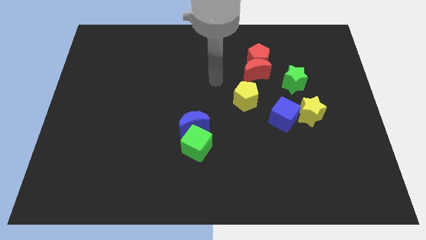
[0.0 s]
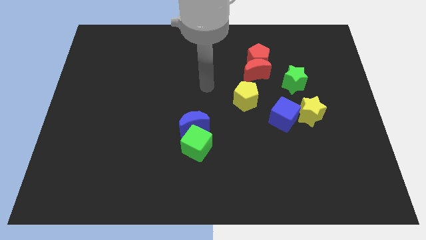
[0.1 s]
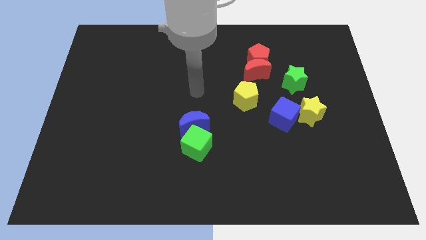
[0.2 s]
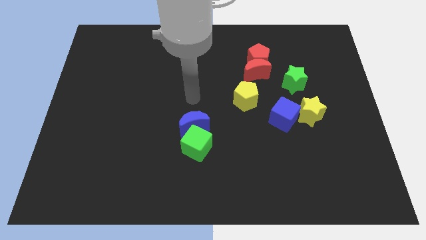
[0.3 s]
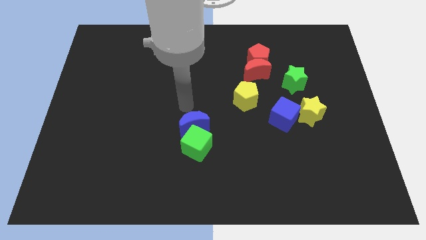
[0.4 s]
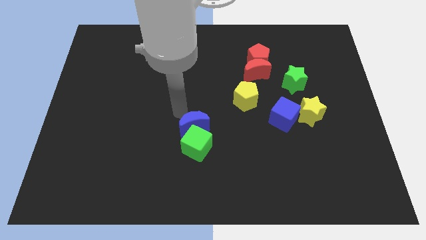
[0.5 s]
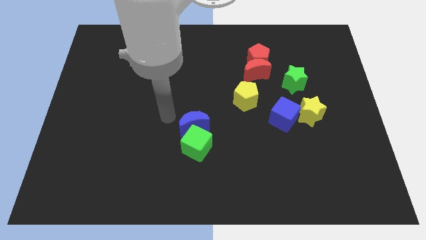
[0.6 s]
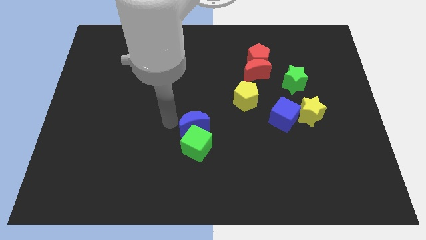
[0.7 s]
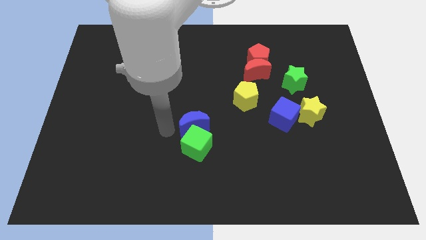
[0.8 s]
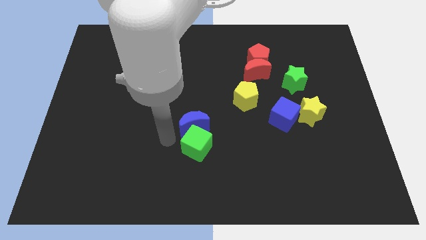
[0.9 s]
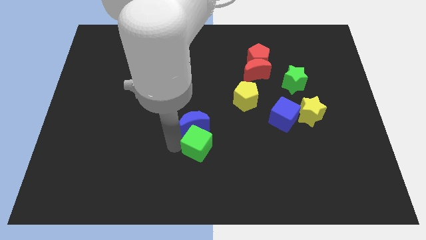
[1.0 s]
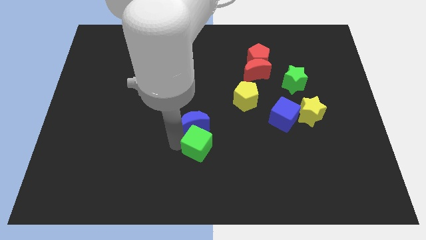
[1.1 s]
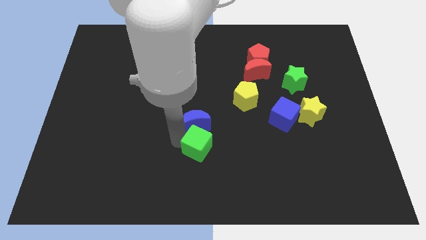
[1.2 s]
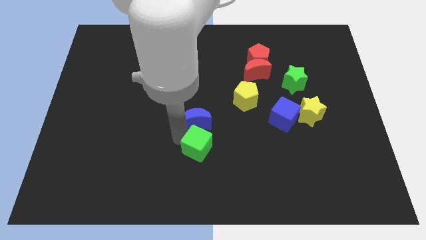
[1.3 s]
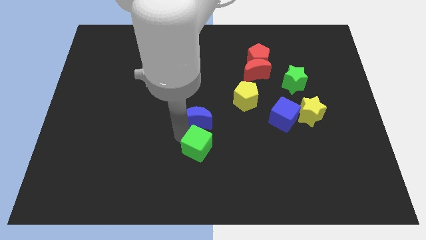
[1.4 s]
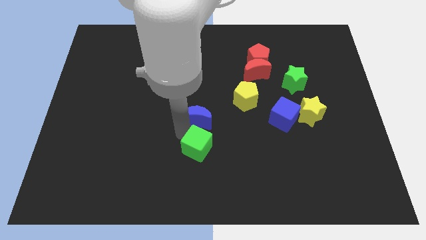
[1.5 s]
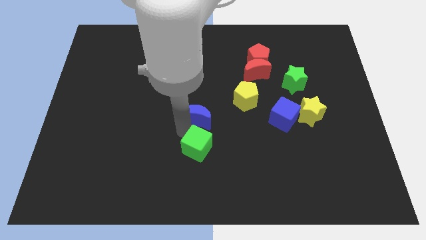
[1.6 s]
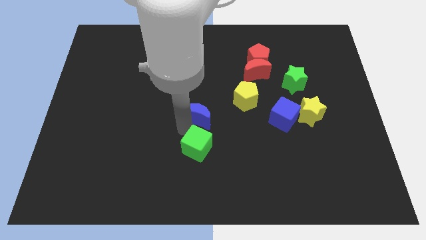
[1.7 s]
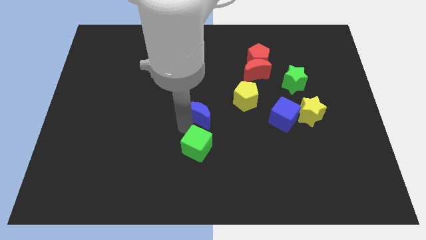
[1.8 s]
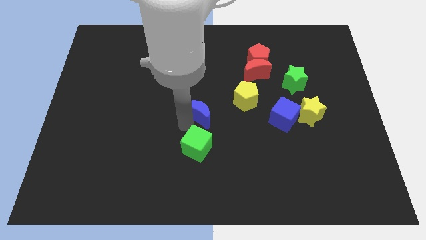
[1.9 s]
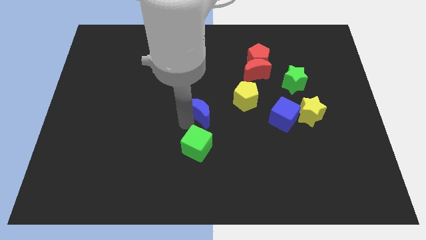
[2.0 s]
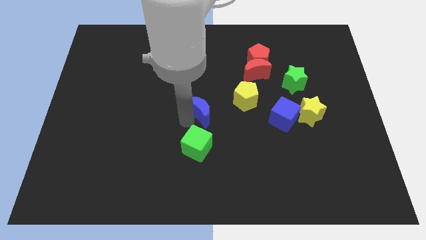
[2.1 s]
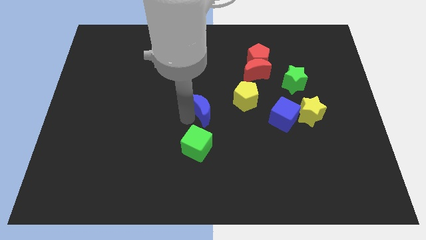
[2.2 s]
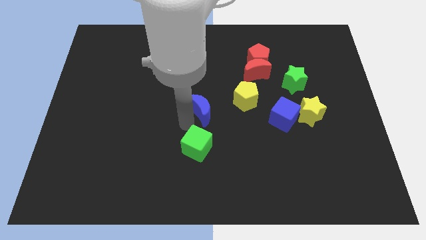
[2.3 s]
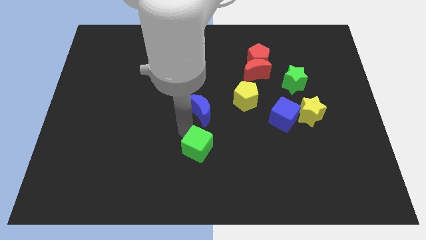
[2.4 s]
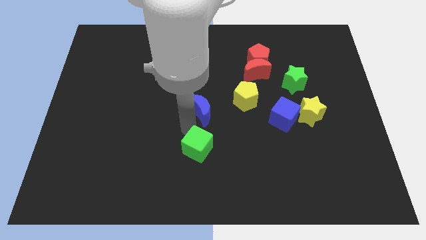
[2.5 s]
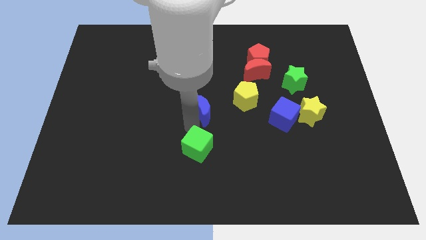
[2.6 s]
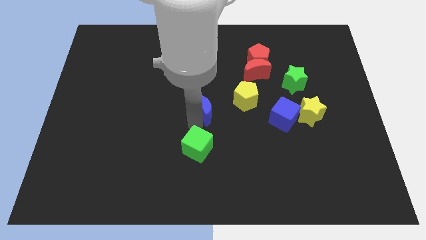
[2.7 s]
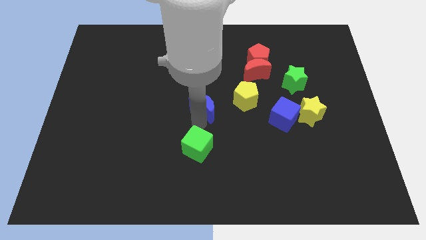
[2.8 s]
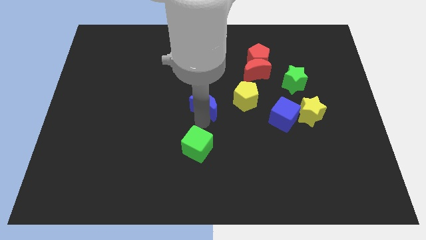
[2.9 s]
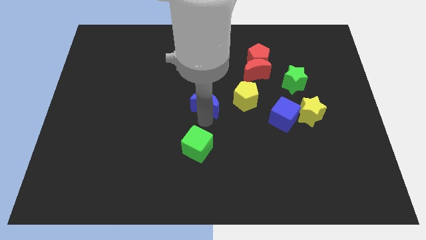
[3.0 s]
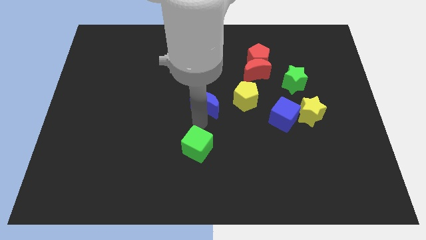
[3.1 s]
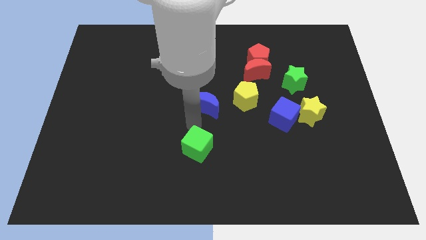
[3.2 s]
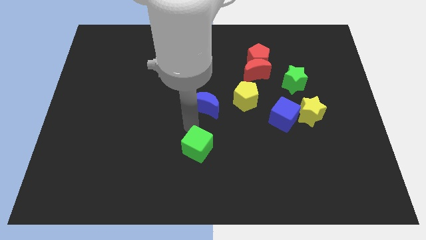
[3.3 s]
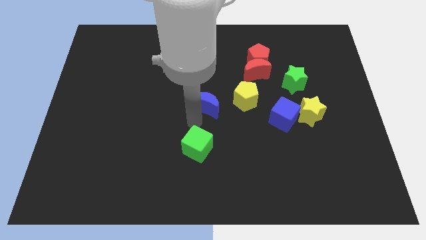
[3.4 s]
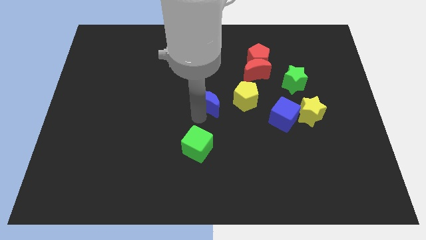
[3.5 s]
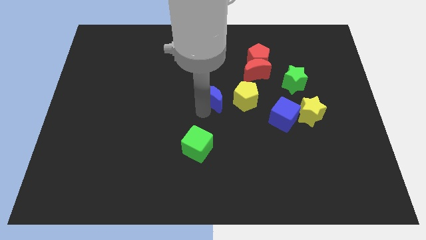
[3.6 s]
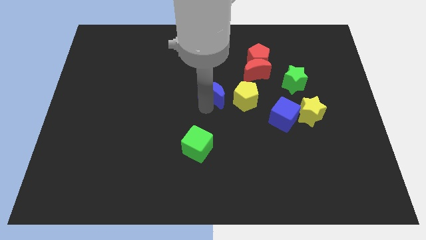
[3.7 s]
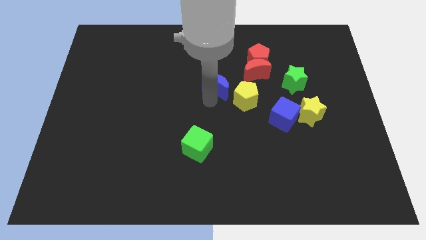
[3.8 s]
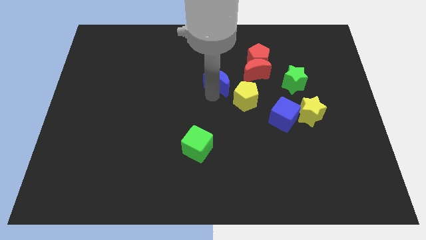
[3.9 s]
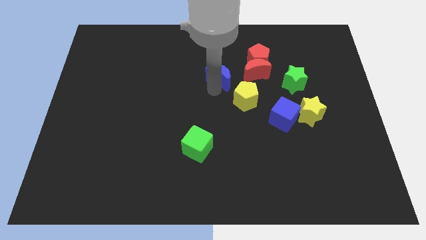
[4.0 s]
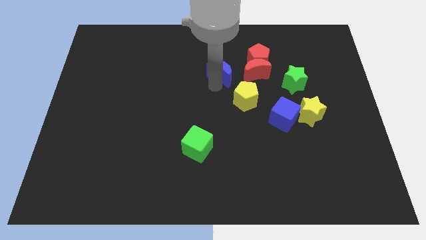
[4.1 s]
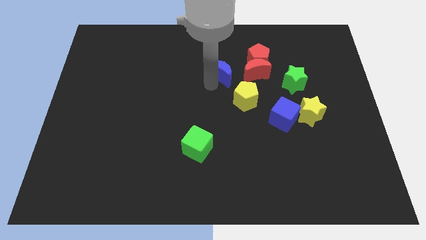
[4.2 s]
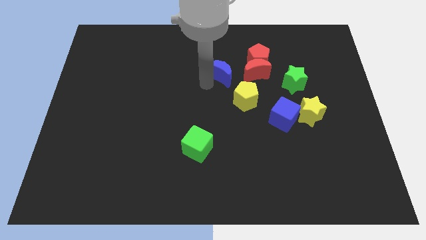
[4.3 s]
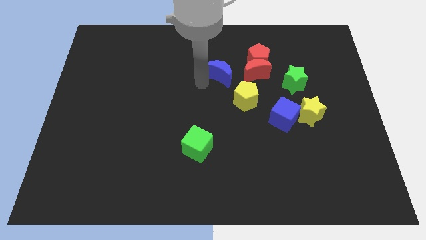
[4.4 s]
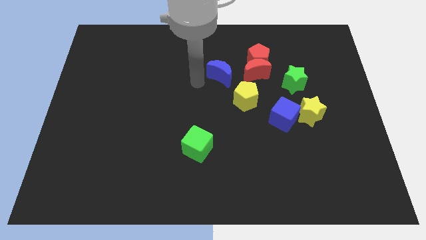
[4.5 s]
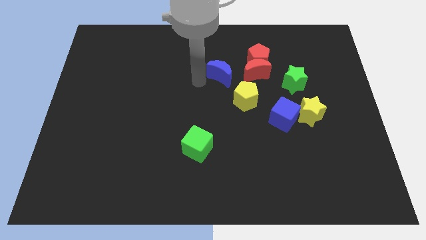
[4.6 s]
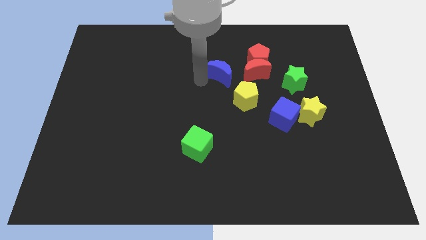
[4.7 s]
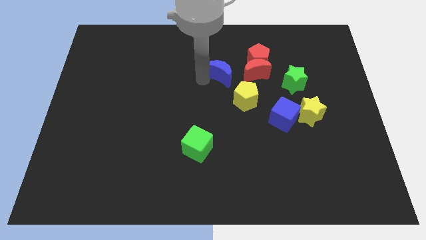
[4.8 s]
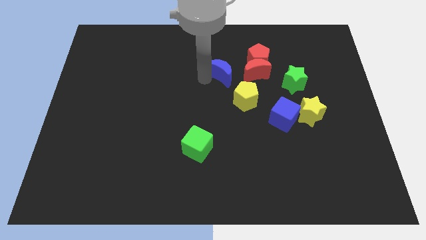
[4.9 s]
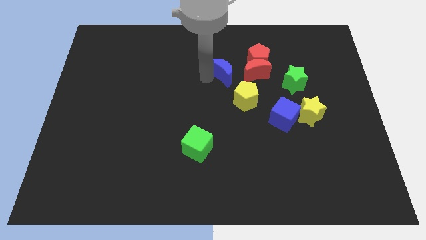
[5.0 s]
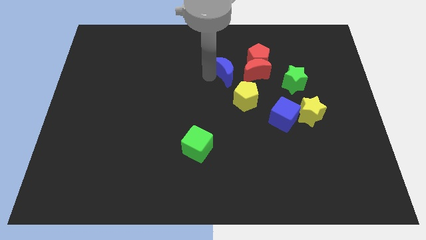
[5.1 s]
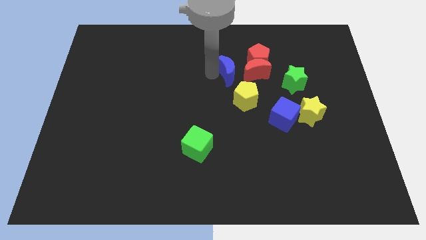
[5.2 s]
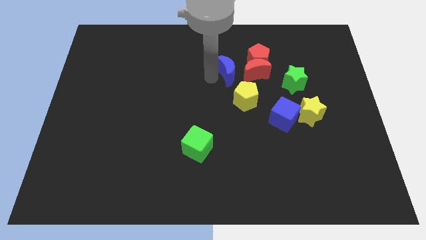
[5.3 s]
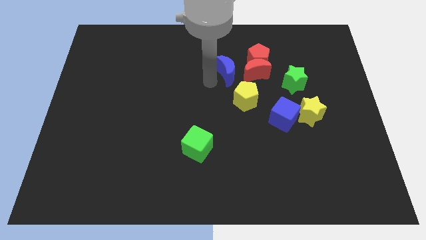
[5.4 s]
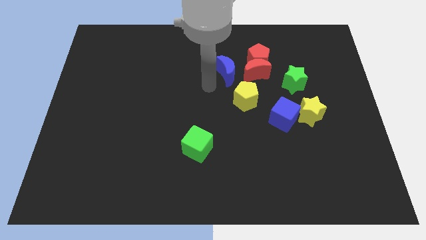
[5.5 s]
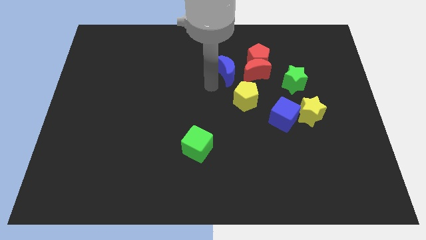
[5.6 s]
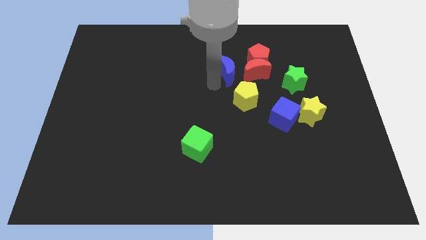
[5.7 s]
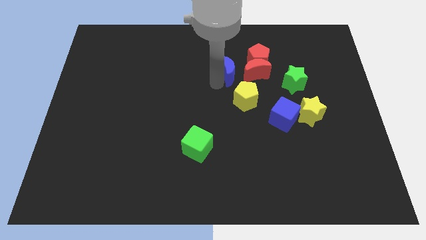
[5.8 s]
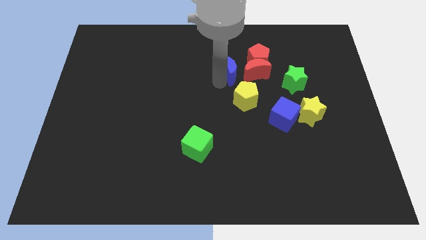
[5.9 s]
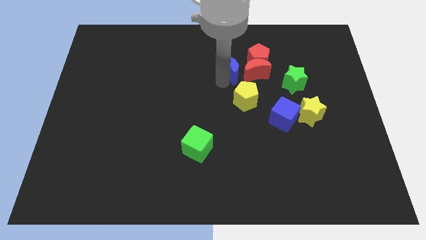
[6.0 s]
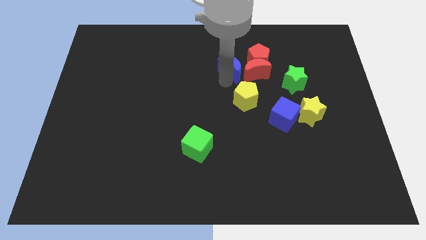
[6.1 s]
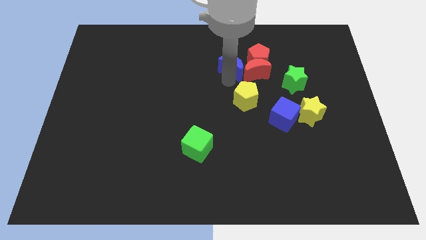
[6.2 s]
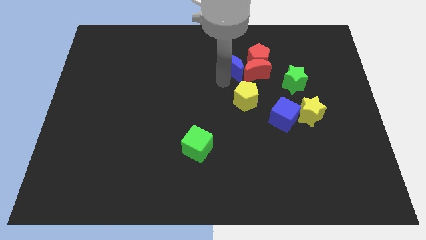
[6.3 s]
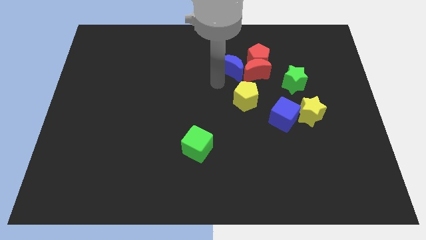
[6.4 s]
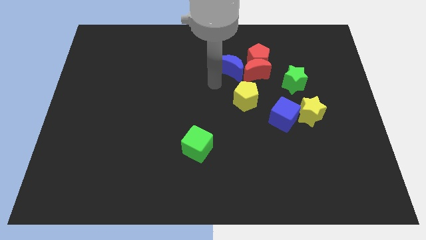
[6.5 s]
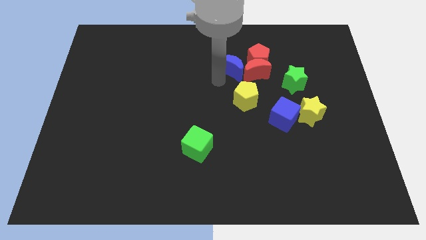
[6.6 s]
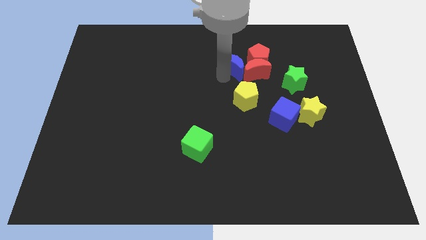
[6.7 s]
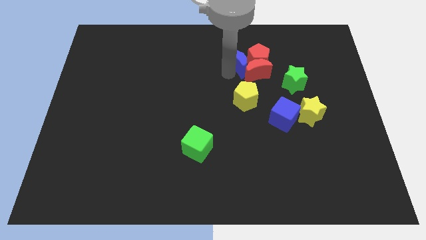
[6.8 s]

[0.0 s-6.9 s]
move the blue moon to the red pentagon

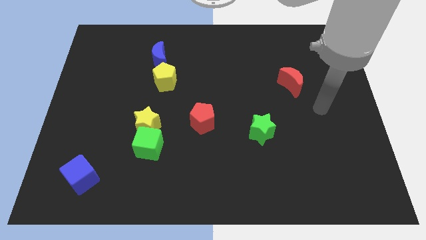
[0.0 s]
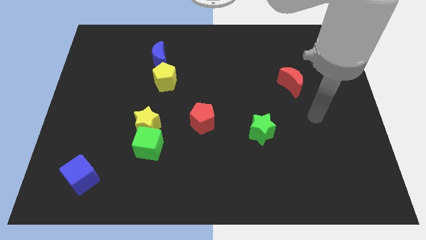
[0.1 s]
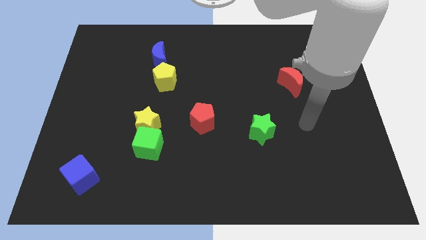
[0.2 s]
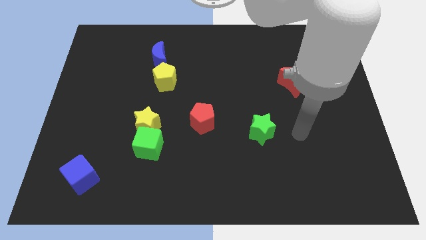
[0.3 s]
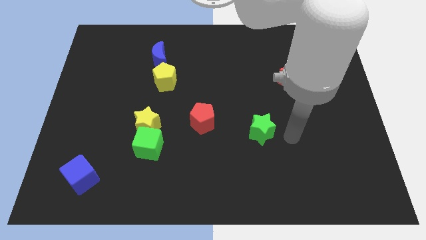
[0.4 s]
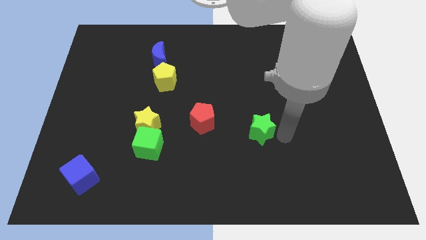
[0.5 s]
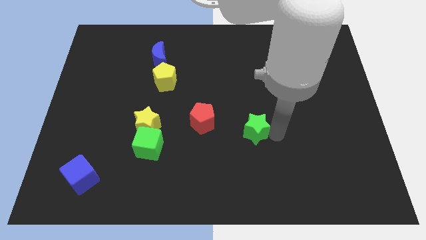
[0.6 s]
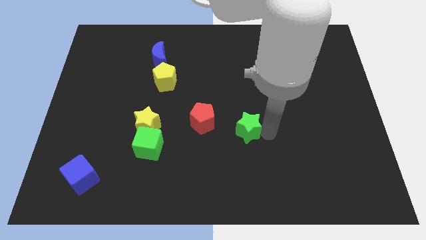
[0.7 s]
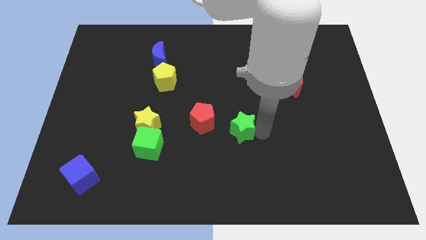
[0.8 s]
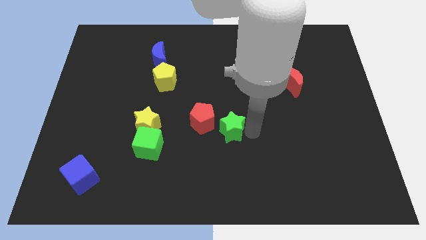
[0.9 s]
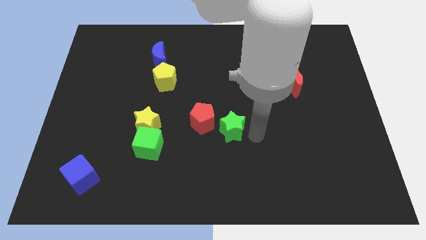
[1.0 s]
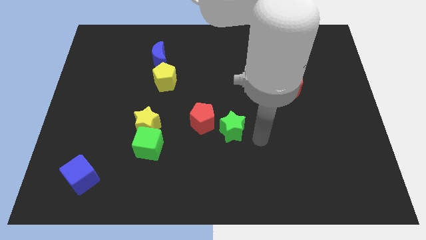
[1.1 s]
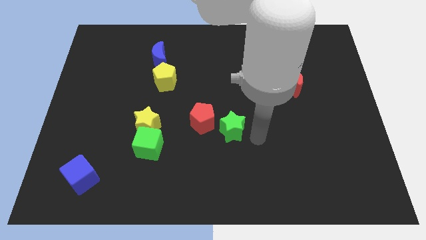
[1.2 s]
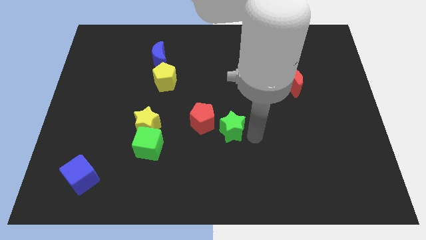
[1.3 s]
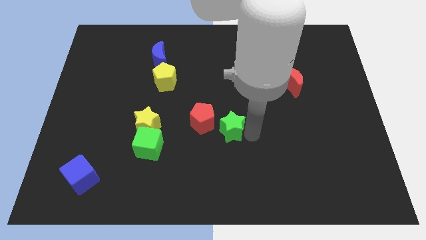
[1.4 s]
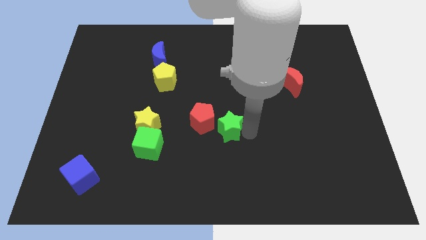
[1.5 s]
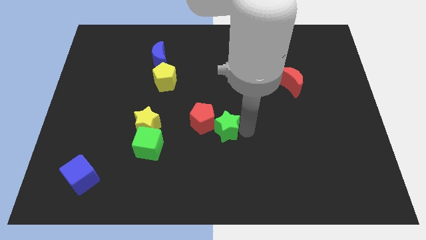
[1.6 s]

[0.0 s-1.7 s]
slide the green star next to the red pentagon
